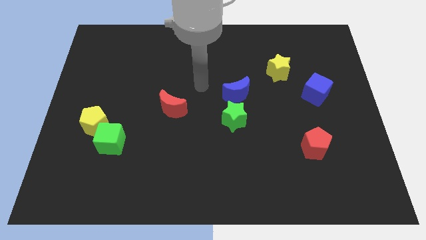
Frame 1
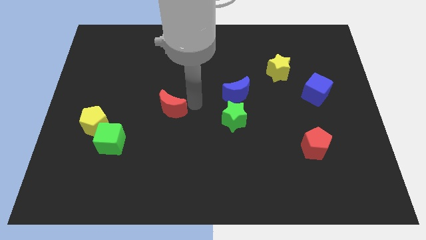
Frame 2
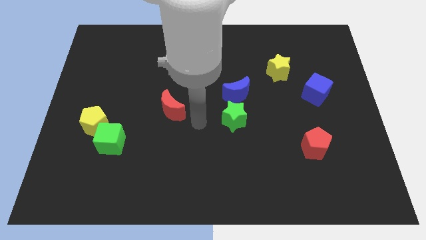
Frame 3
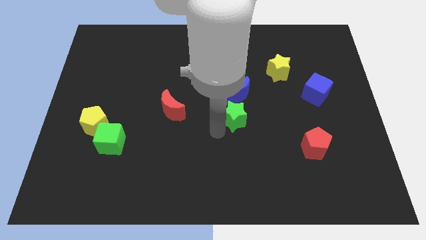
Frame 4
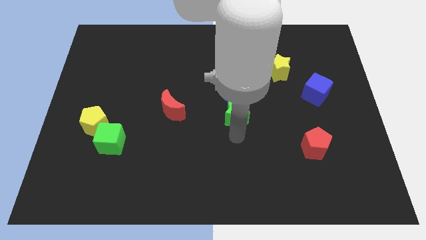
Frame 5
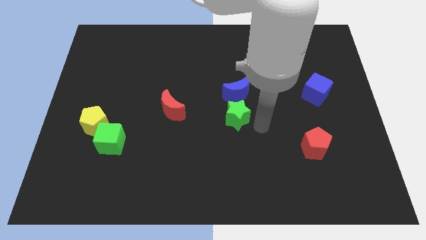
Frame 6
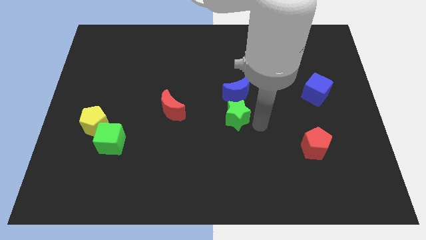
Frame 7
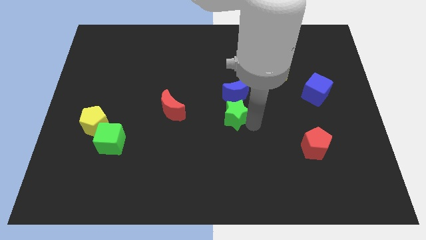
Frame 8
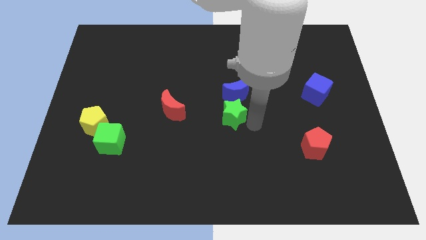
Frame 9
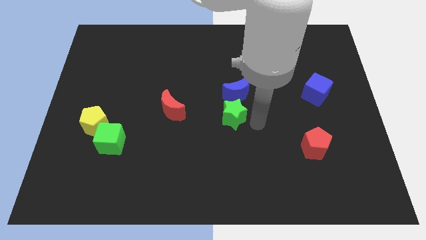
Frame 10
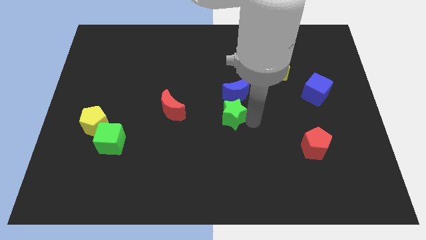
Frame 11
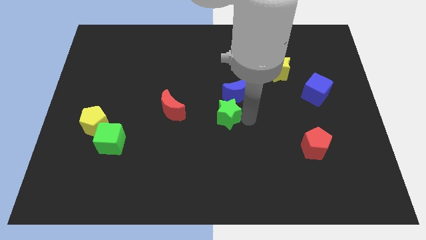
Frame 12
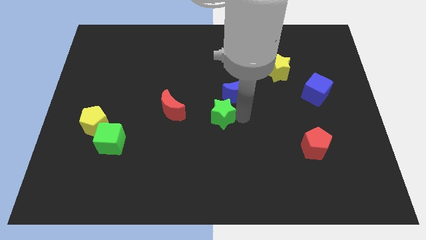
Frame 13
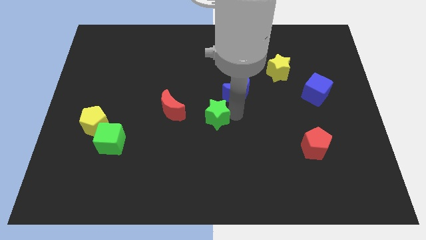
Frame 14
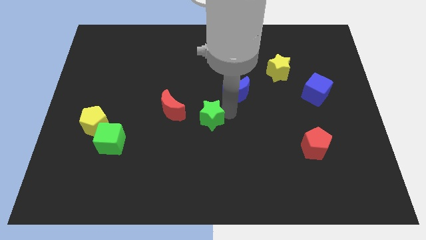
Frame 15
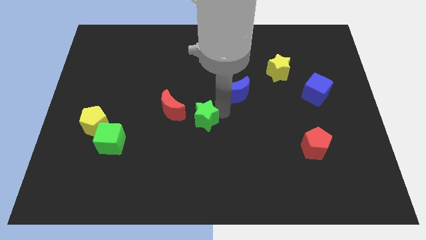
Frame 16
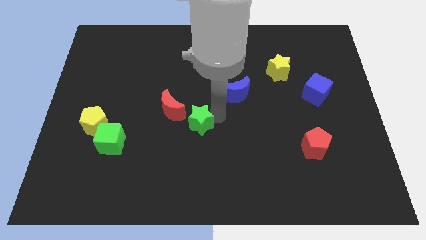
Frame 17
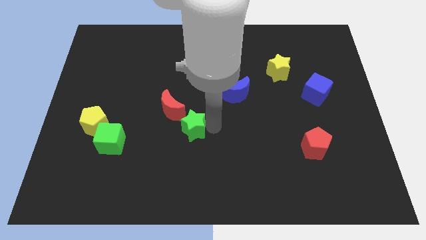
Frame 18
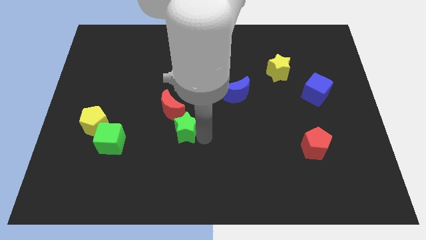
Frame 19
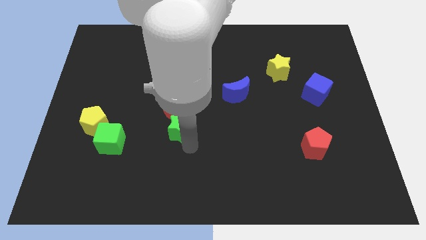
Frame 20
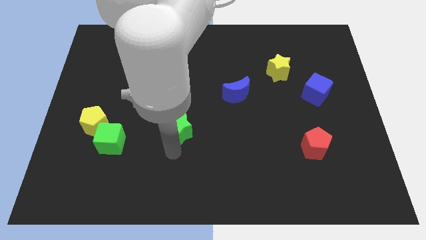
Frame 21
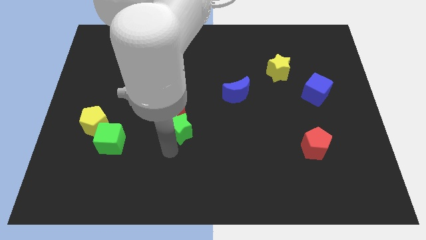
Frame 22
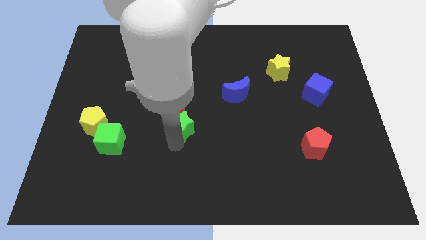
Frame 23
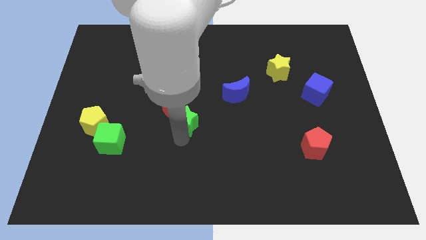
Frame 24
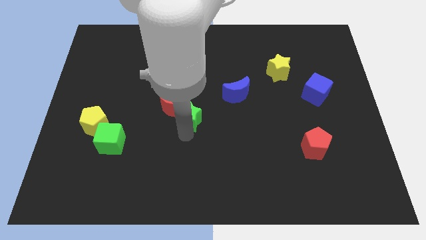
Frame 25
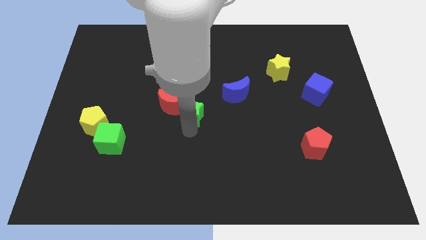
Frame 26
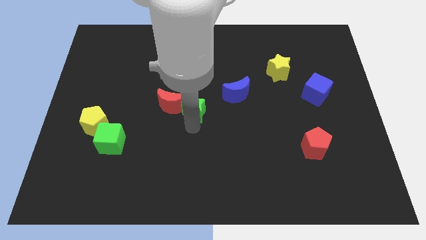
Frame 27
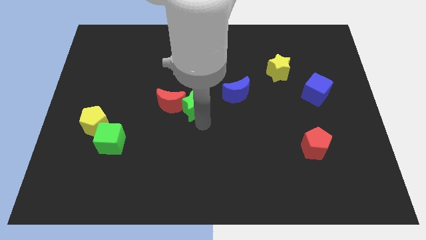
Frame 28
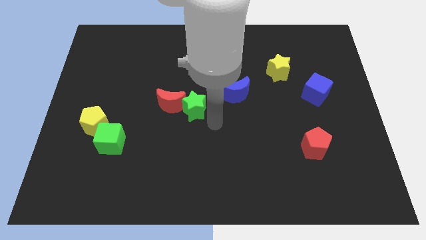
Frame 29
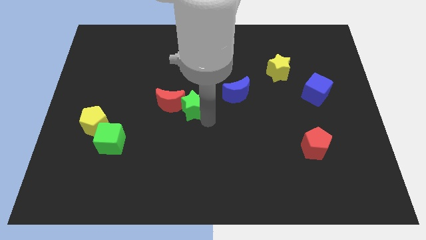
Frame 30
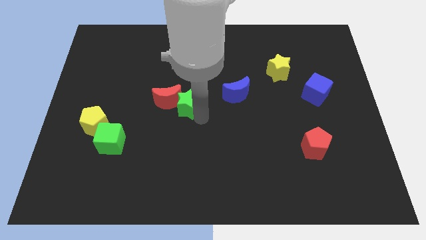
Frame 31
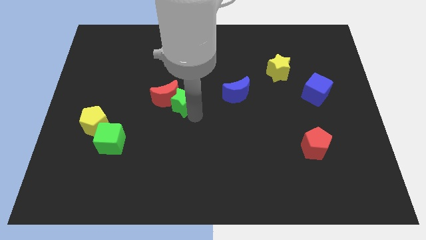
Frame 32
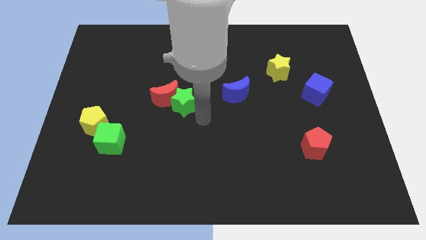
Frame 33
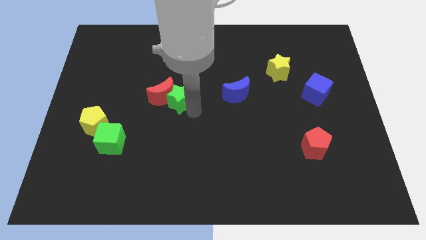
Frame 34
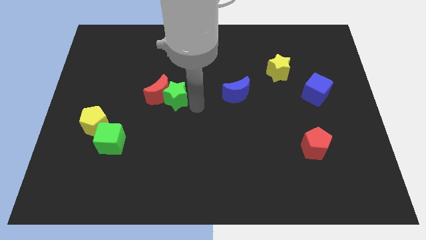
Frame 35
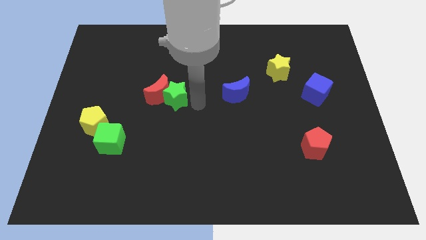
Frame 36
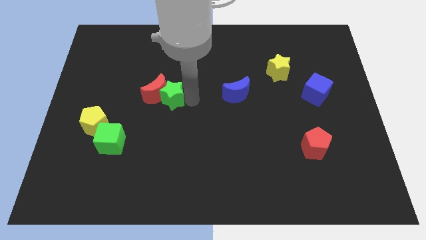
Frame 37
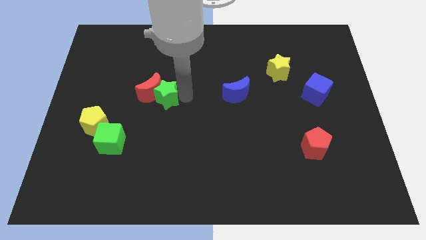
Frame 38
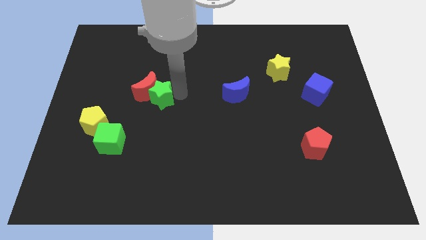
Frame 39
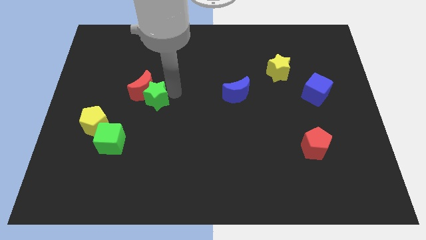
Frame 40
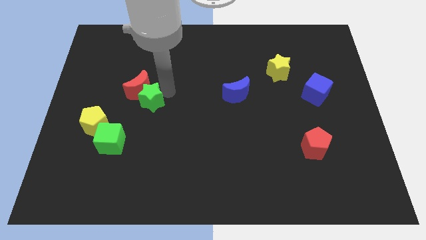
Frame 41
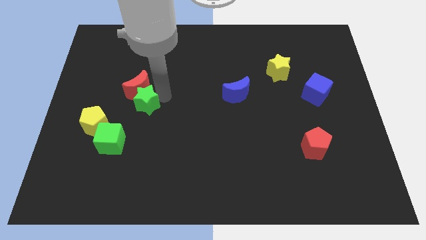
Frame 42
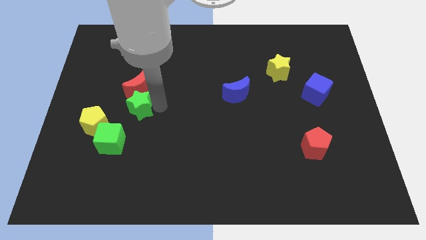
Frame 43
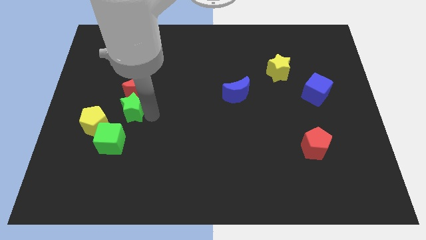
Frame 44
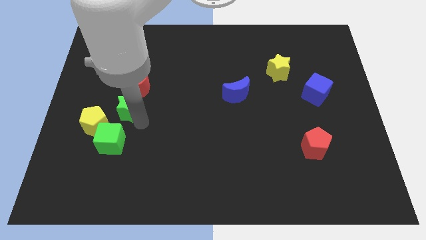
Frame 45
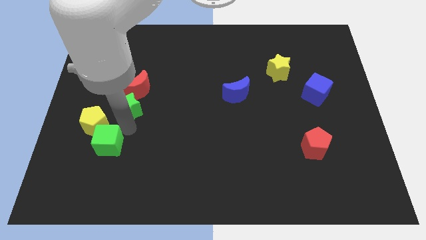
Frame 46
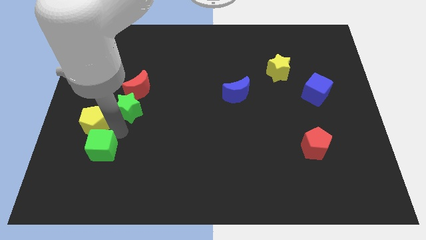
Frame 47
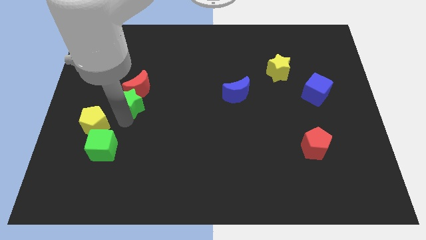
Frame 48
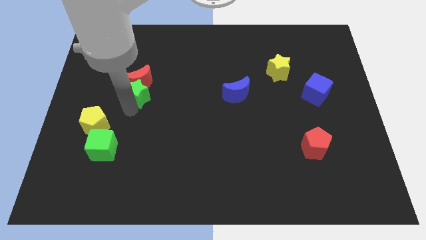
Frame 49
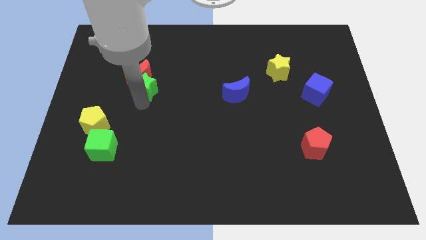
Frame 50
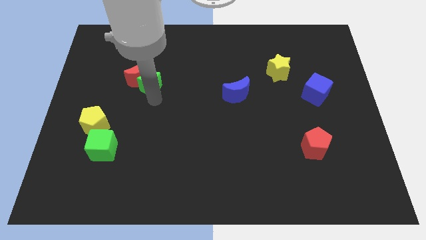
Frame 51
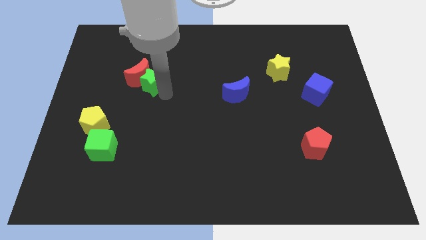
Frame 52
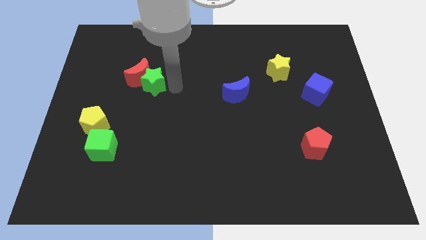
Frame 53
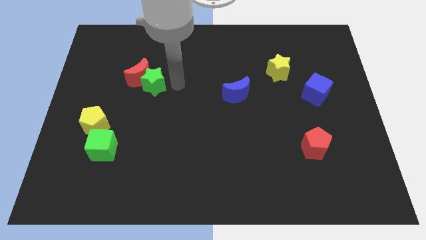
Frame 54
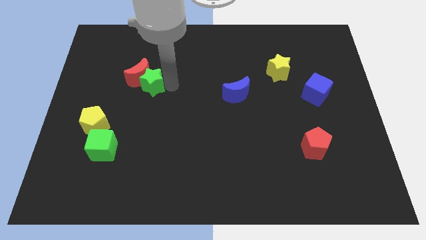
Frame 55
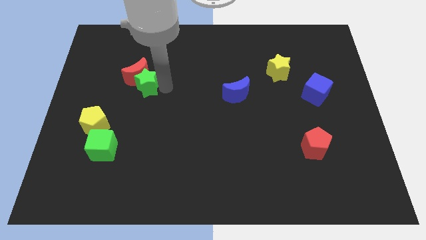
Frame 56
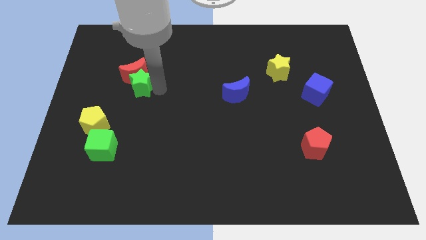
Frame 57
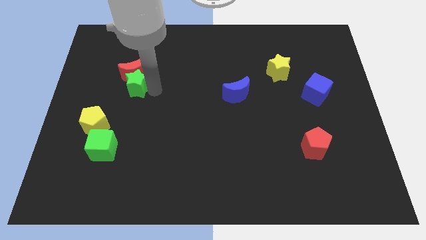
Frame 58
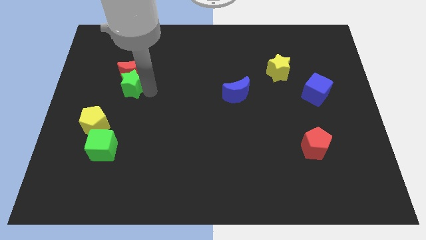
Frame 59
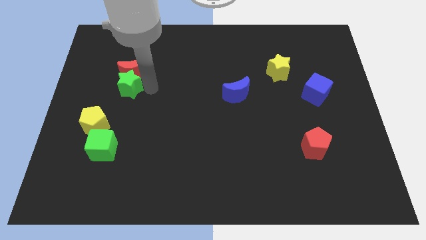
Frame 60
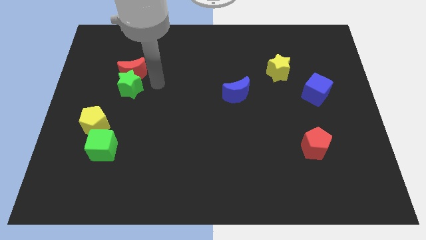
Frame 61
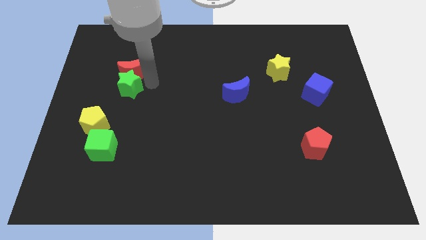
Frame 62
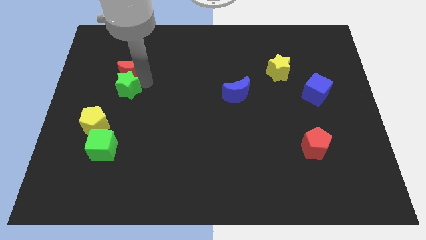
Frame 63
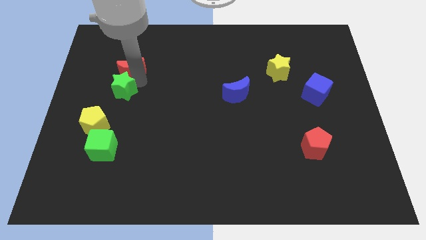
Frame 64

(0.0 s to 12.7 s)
slide the green star to the top of the yellow pentagon

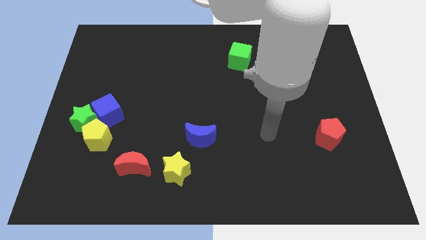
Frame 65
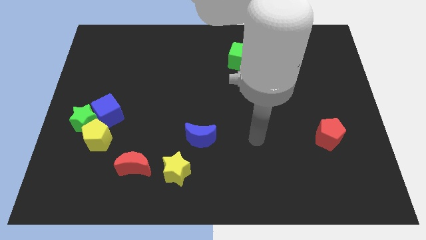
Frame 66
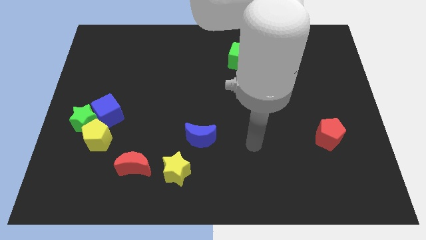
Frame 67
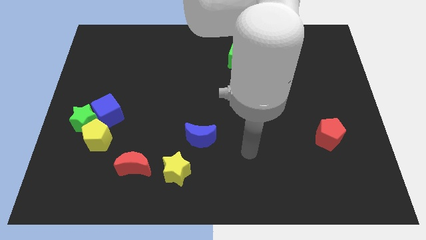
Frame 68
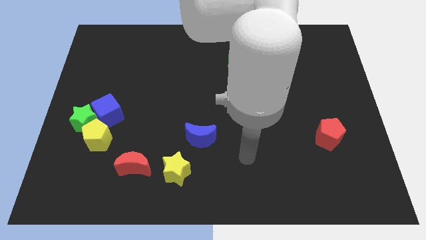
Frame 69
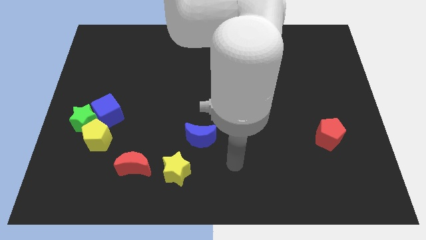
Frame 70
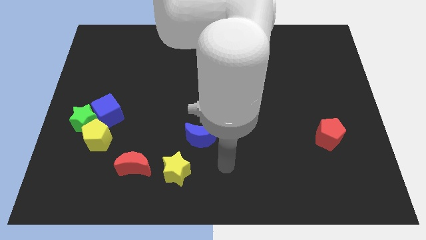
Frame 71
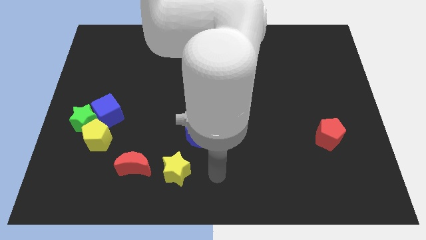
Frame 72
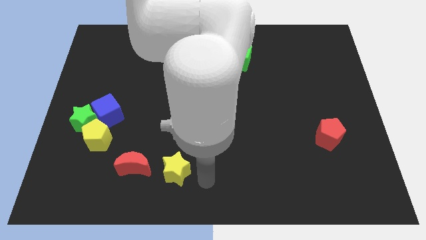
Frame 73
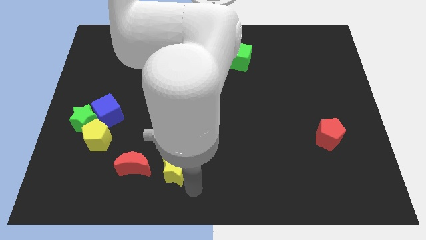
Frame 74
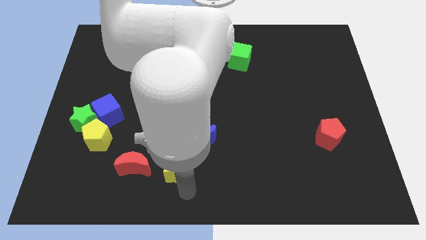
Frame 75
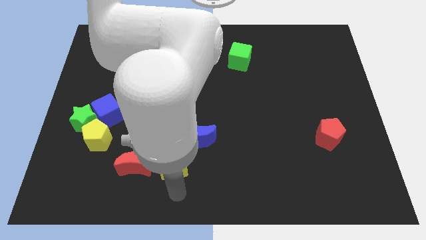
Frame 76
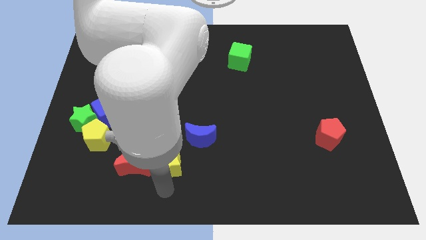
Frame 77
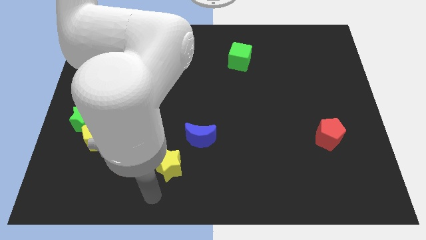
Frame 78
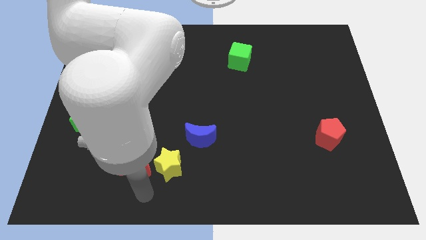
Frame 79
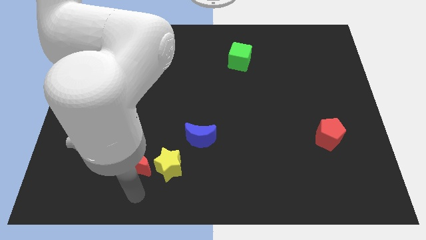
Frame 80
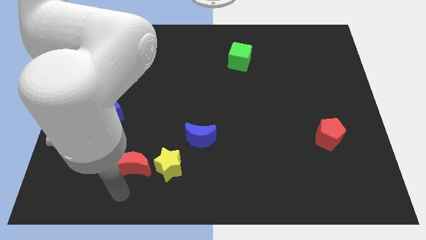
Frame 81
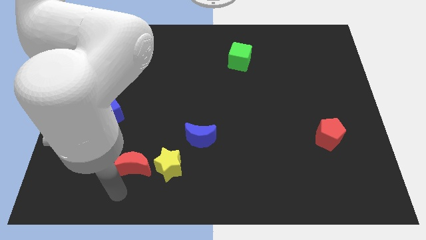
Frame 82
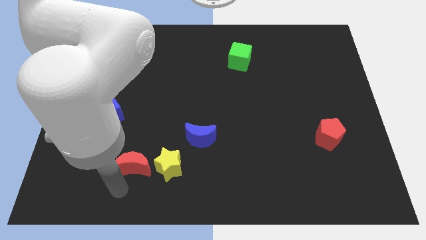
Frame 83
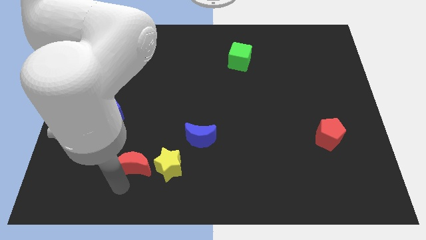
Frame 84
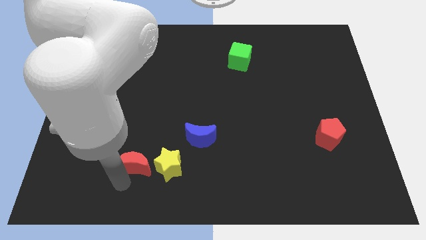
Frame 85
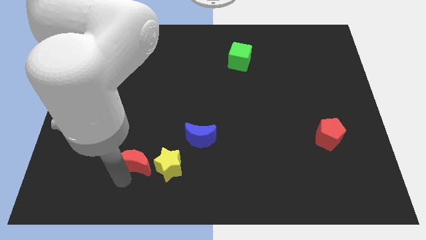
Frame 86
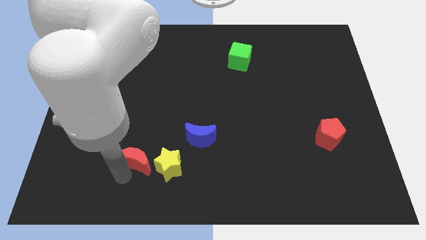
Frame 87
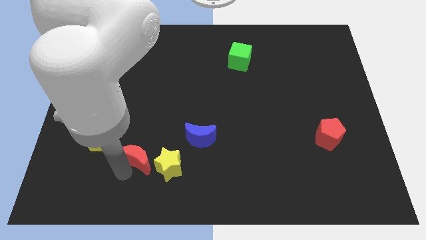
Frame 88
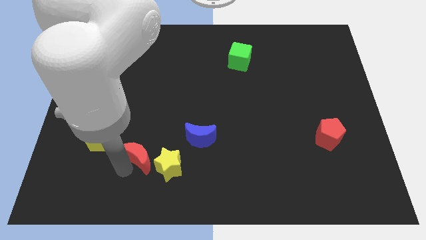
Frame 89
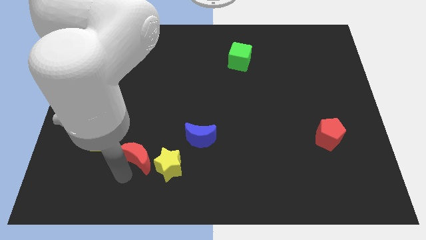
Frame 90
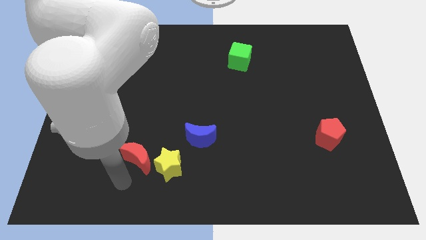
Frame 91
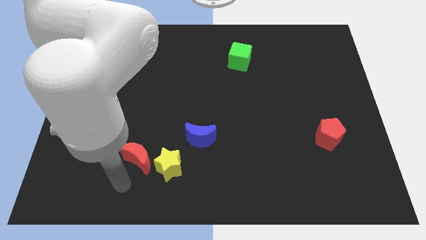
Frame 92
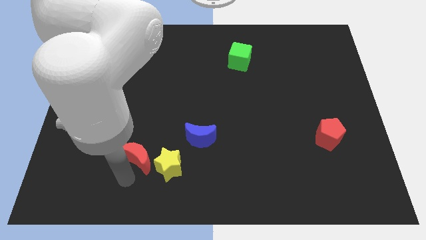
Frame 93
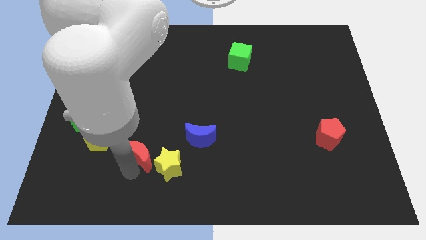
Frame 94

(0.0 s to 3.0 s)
put the red moon to the left of the blue moon
